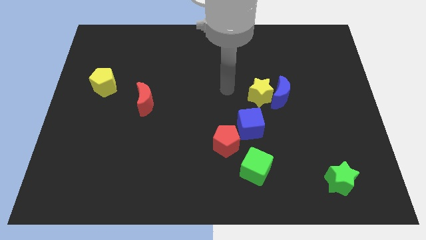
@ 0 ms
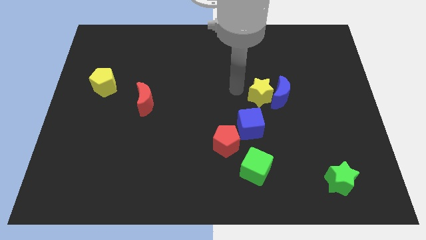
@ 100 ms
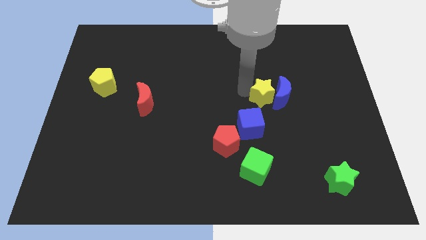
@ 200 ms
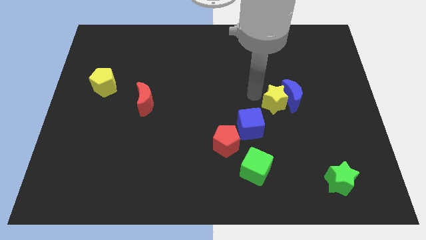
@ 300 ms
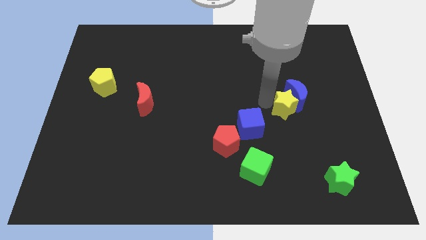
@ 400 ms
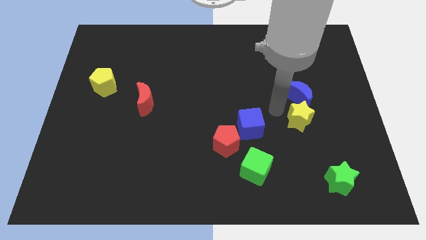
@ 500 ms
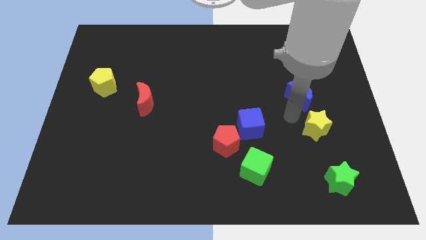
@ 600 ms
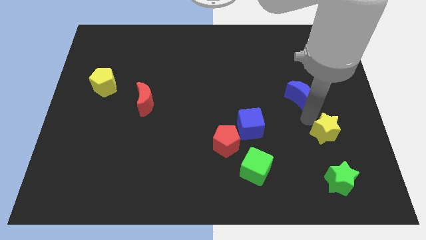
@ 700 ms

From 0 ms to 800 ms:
move the blue moon away from the yellow star

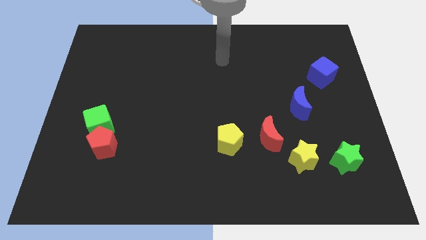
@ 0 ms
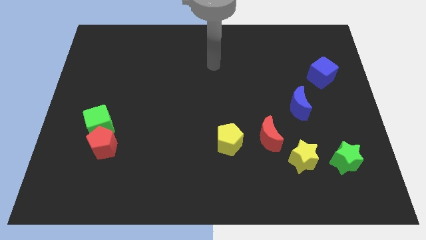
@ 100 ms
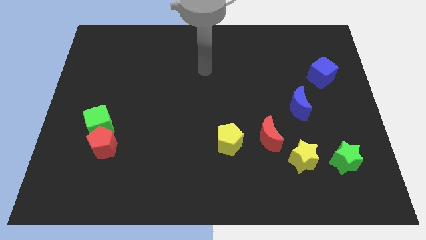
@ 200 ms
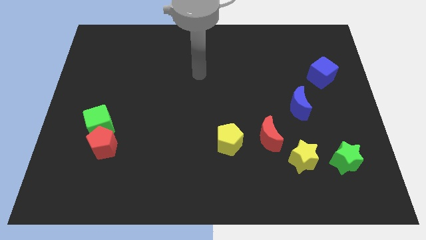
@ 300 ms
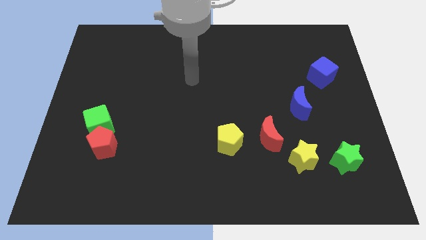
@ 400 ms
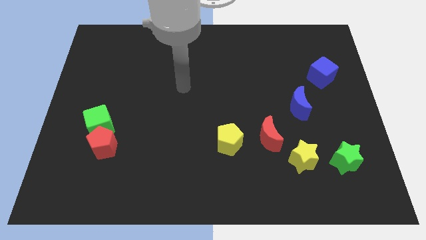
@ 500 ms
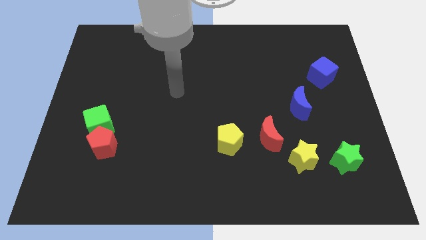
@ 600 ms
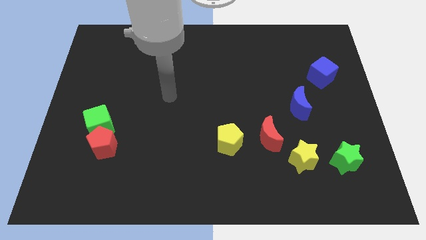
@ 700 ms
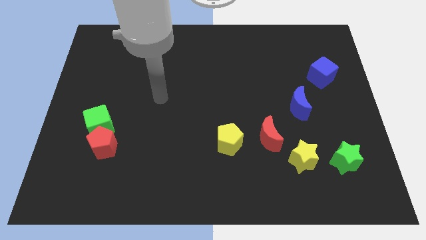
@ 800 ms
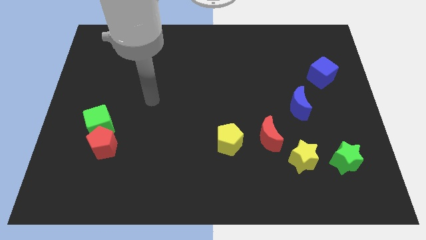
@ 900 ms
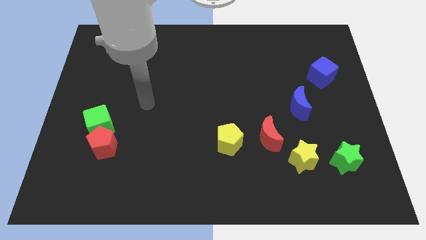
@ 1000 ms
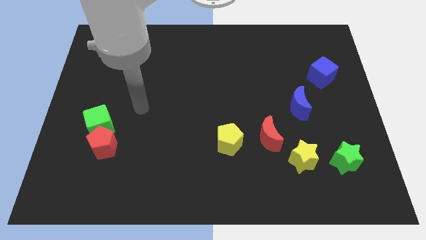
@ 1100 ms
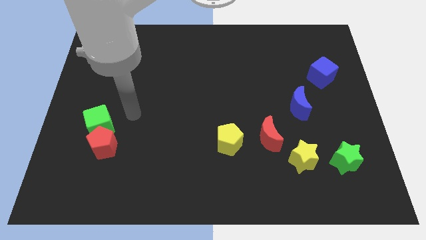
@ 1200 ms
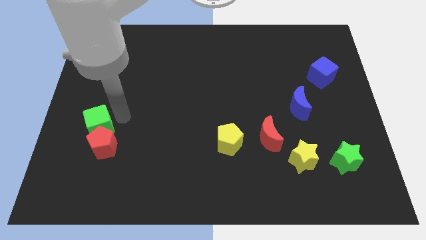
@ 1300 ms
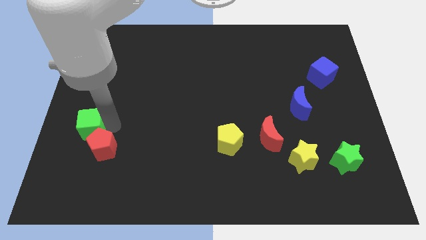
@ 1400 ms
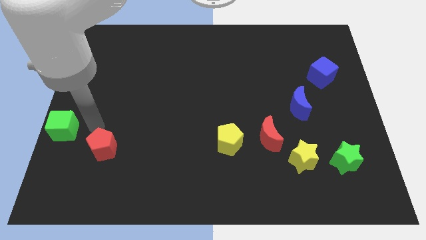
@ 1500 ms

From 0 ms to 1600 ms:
separate the red pentagon from the green cube

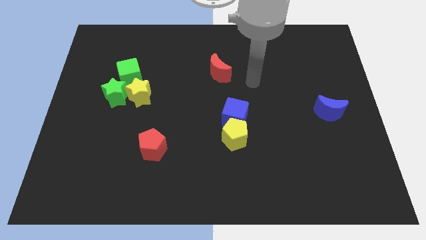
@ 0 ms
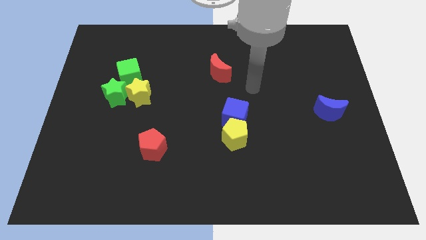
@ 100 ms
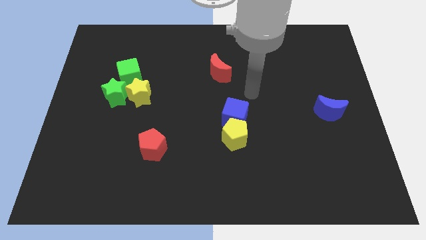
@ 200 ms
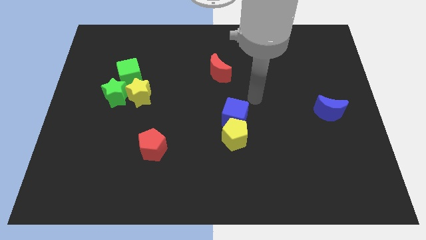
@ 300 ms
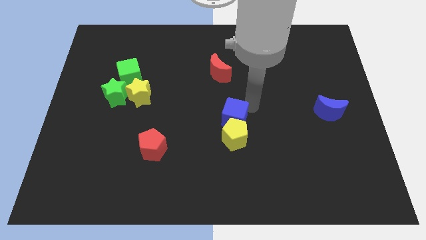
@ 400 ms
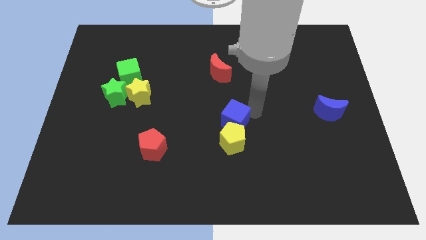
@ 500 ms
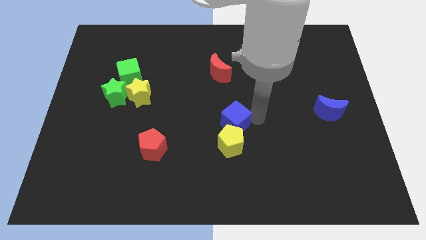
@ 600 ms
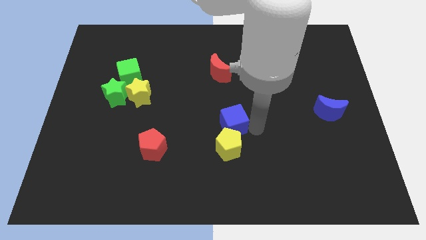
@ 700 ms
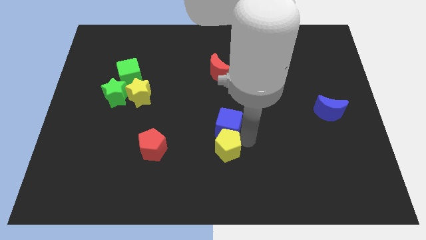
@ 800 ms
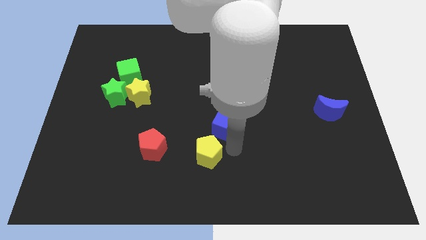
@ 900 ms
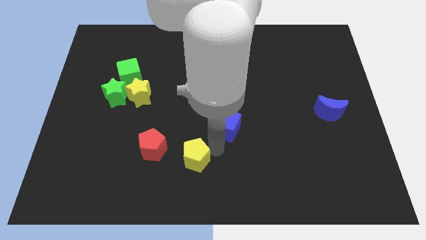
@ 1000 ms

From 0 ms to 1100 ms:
pull the blue cube apart from the yellow pentagon

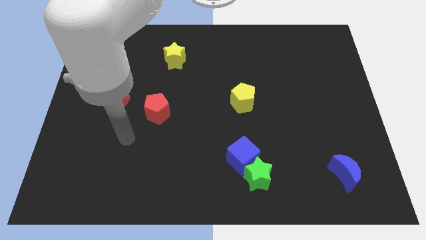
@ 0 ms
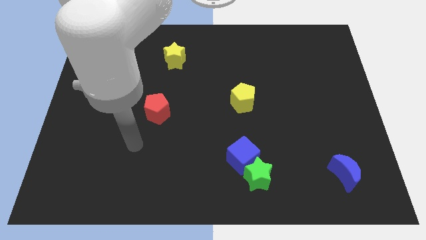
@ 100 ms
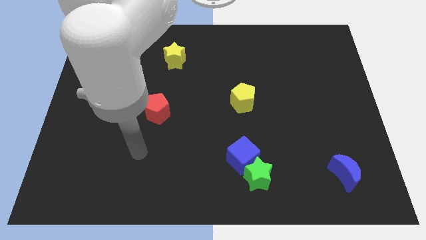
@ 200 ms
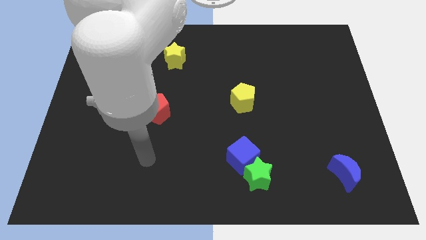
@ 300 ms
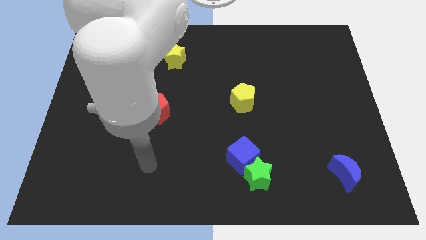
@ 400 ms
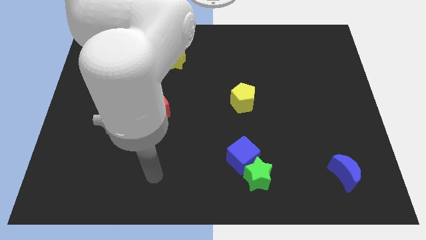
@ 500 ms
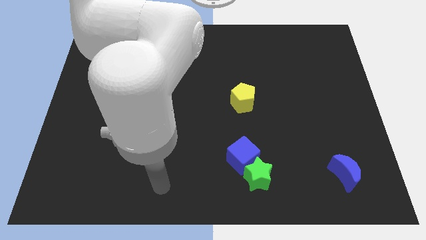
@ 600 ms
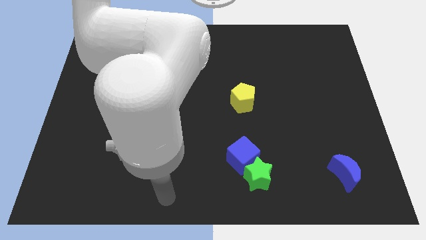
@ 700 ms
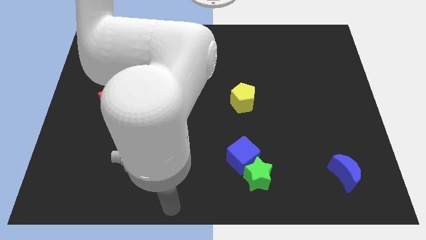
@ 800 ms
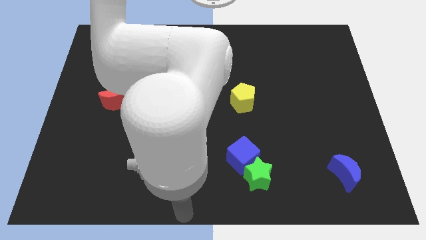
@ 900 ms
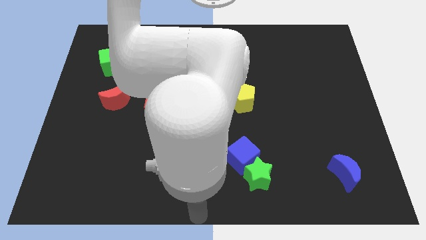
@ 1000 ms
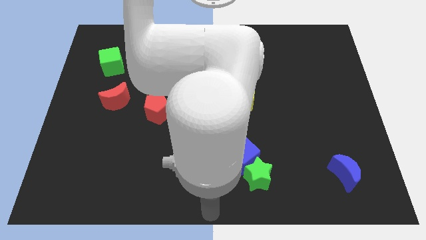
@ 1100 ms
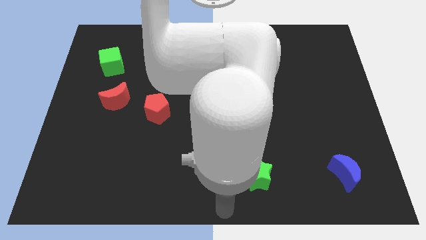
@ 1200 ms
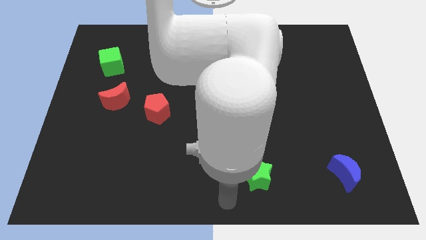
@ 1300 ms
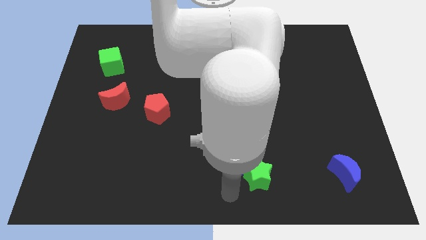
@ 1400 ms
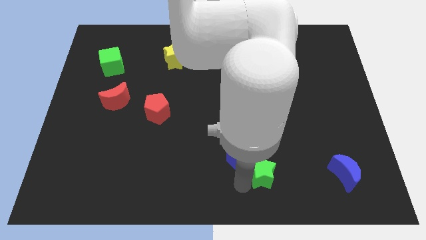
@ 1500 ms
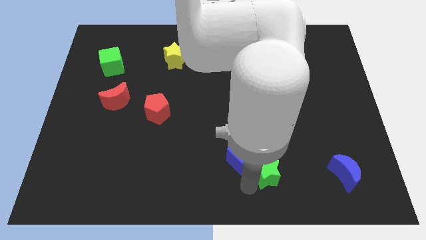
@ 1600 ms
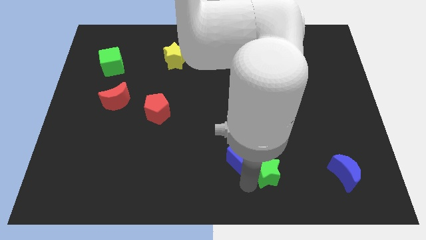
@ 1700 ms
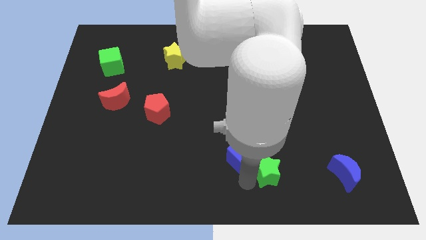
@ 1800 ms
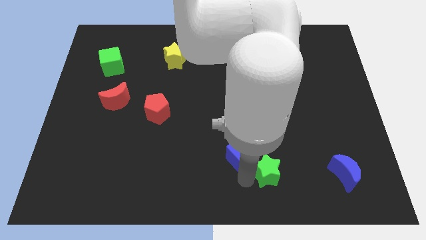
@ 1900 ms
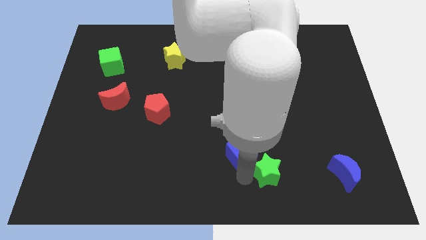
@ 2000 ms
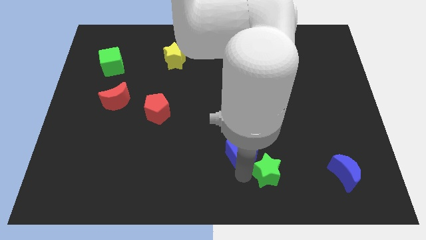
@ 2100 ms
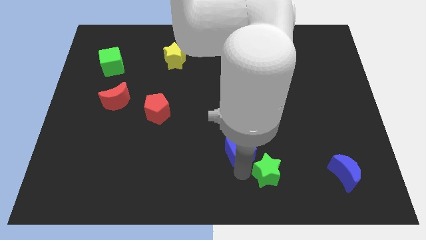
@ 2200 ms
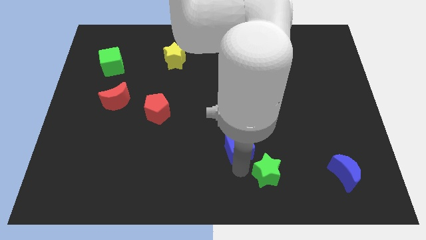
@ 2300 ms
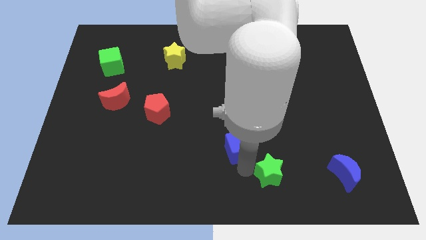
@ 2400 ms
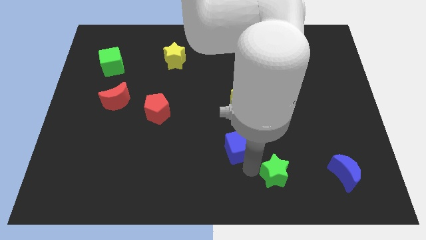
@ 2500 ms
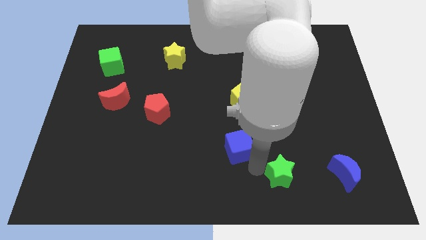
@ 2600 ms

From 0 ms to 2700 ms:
move the blue cube away from the green star

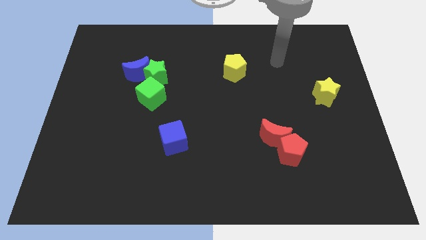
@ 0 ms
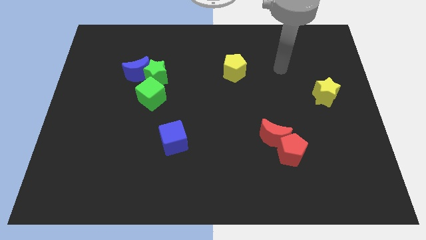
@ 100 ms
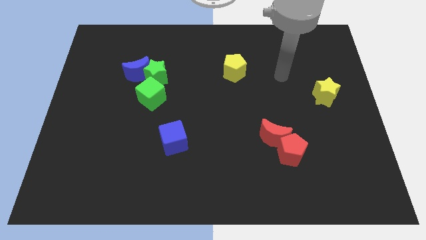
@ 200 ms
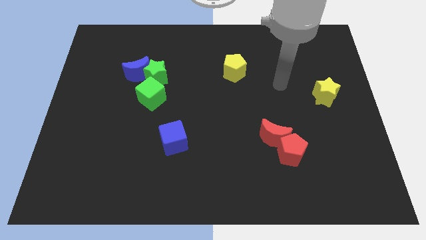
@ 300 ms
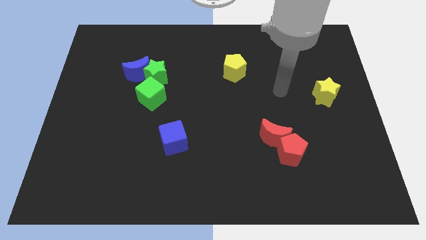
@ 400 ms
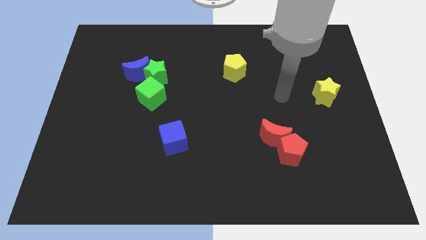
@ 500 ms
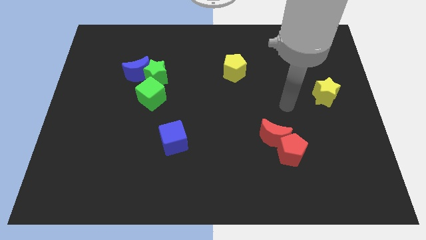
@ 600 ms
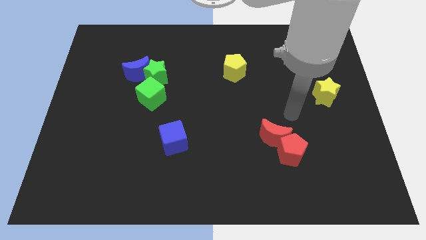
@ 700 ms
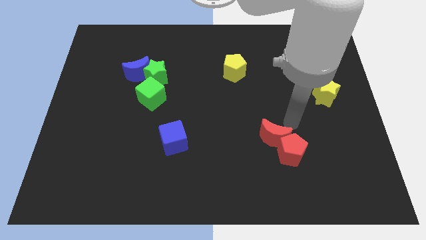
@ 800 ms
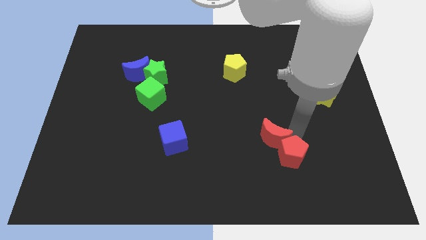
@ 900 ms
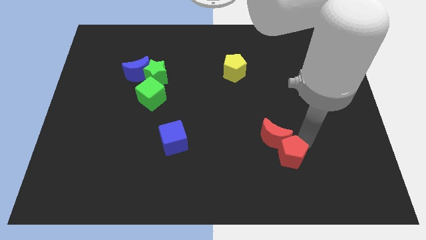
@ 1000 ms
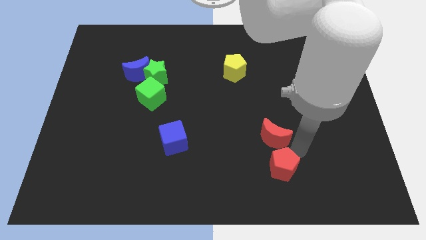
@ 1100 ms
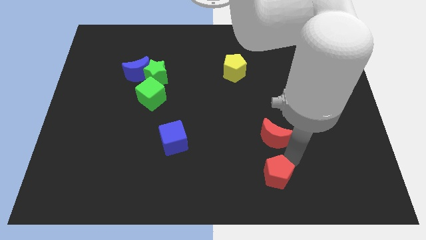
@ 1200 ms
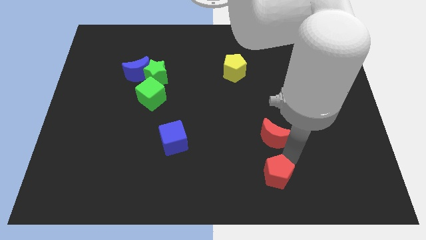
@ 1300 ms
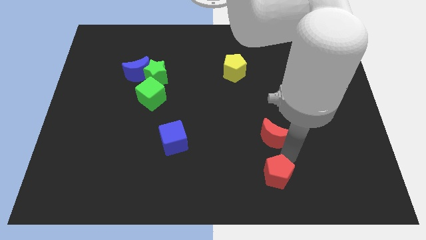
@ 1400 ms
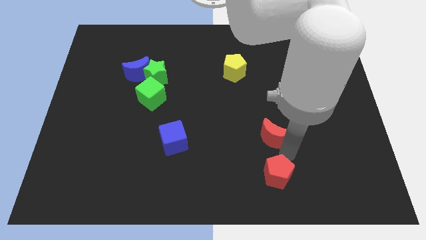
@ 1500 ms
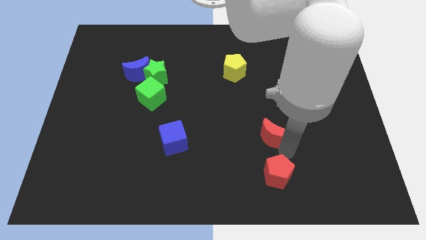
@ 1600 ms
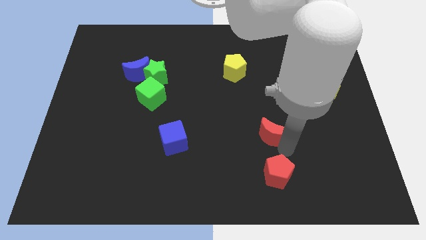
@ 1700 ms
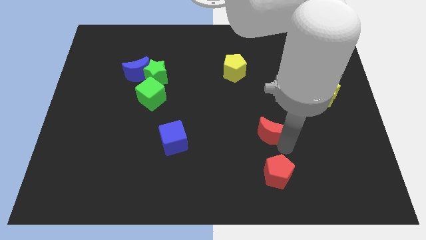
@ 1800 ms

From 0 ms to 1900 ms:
pull the red moon apart from the red pentagon

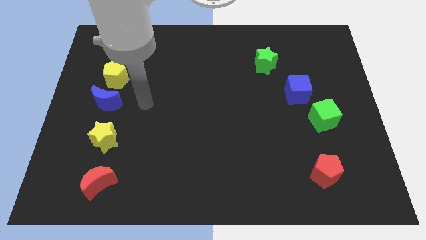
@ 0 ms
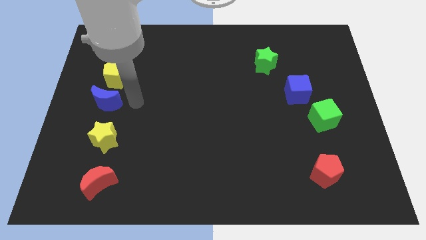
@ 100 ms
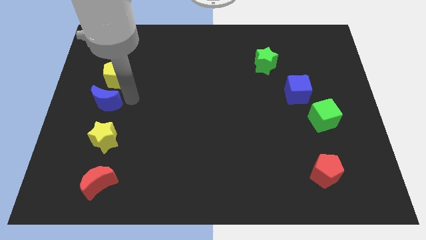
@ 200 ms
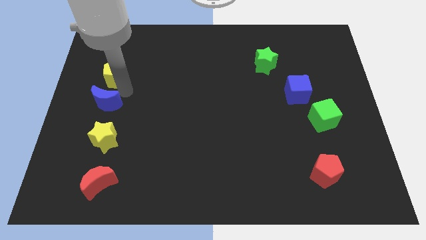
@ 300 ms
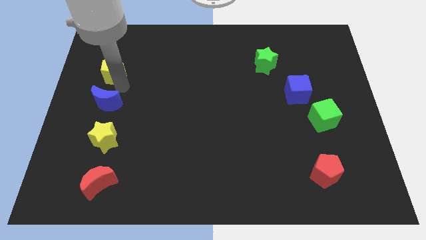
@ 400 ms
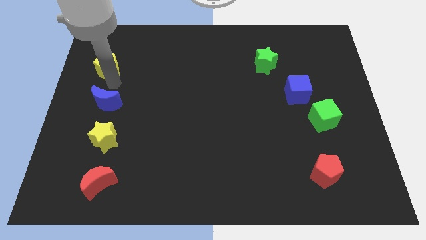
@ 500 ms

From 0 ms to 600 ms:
separate the blue moon from the yellow pentagon

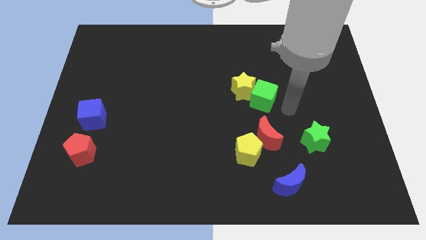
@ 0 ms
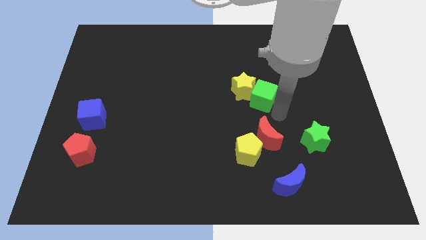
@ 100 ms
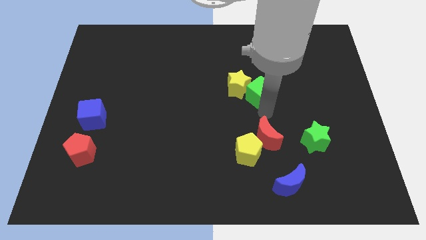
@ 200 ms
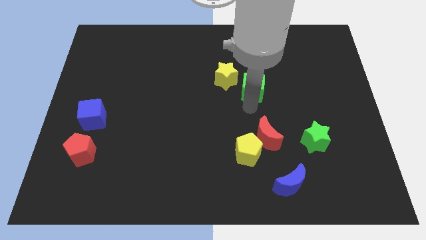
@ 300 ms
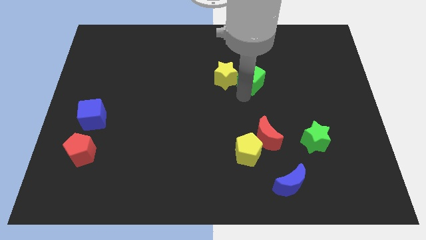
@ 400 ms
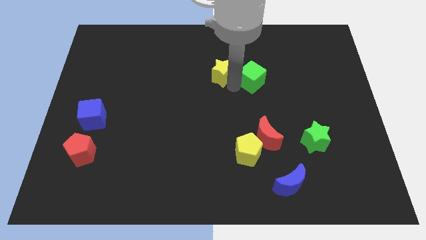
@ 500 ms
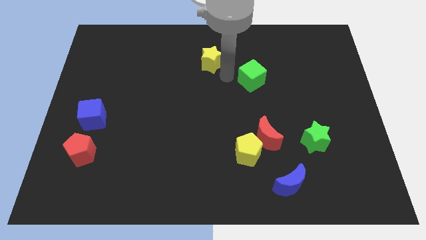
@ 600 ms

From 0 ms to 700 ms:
separate the green cube from the yellow star
